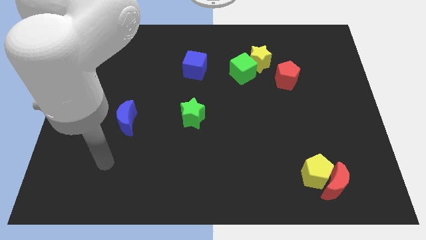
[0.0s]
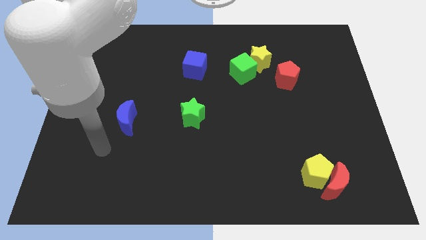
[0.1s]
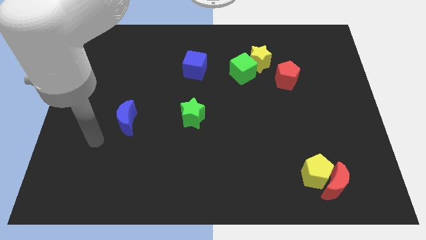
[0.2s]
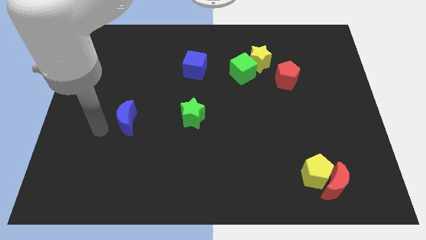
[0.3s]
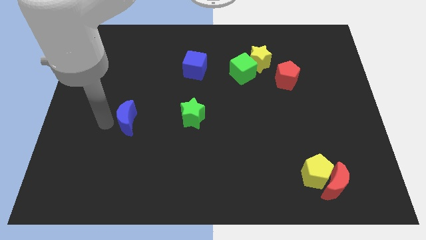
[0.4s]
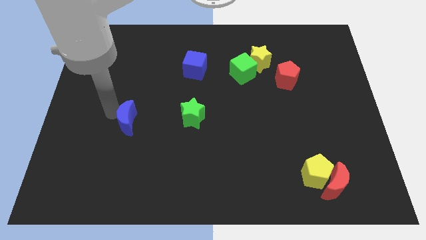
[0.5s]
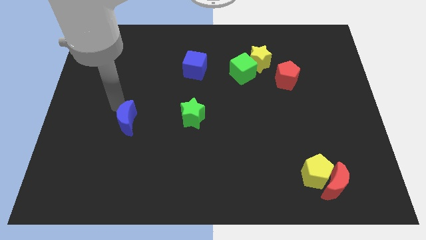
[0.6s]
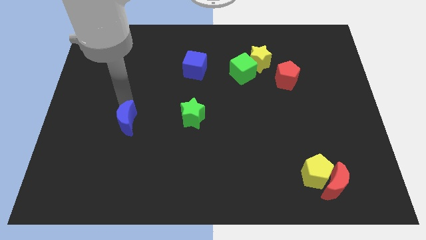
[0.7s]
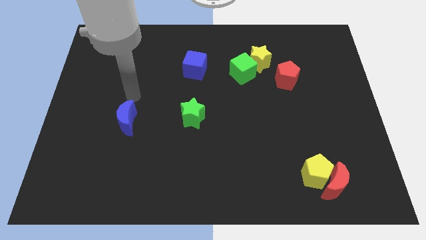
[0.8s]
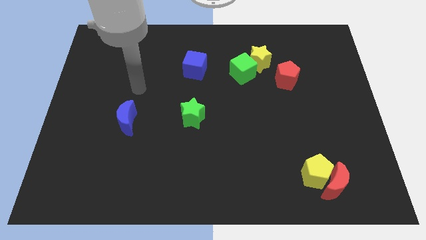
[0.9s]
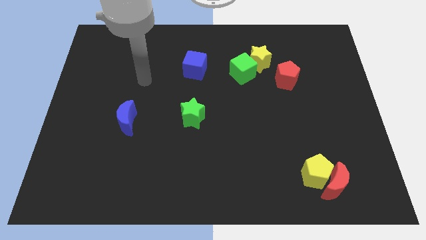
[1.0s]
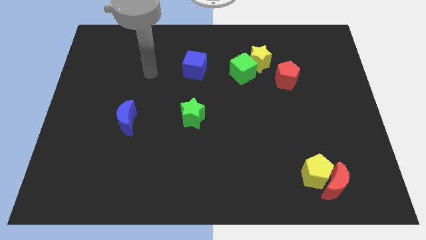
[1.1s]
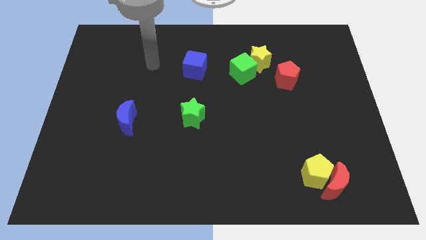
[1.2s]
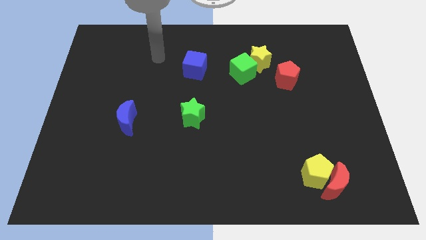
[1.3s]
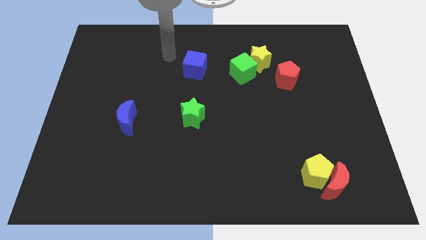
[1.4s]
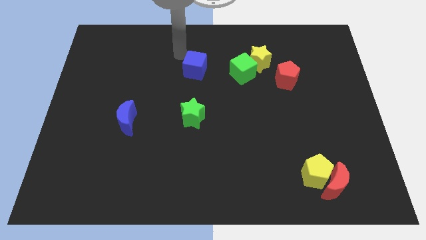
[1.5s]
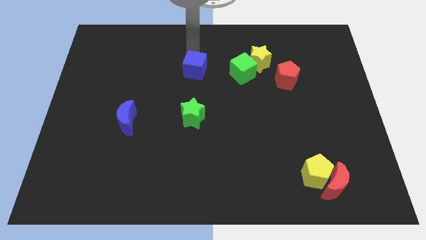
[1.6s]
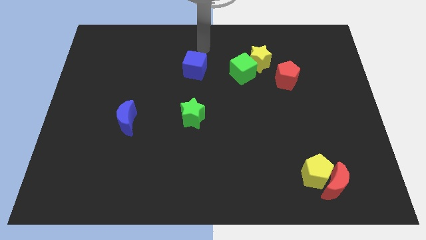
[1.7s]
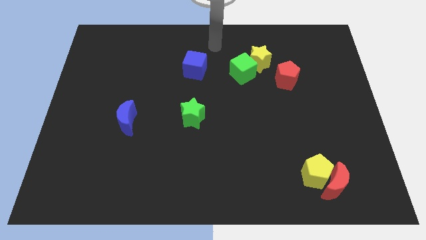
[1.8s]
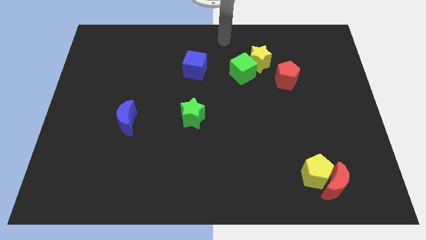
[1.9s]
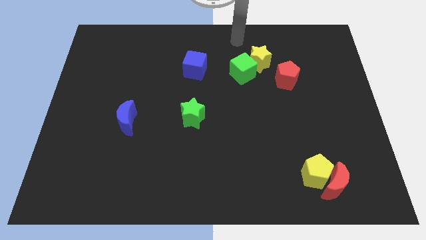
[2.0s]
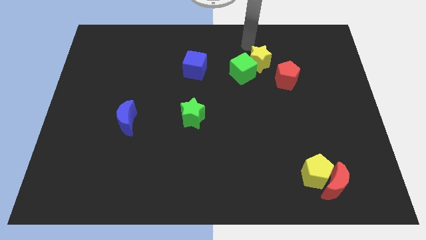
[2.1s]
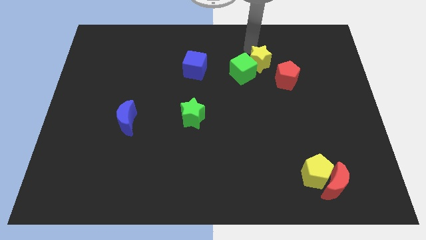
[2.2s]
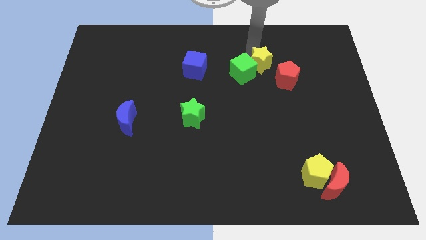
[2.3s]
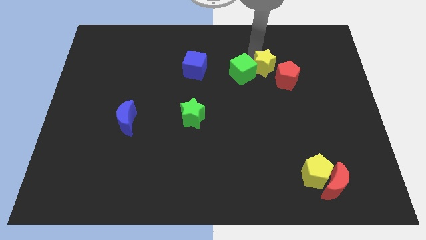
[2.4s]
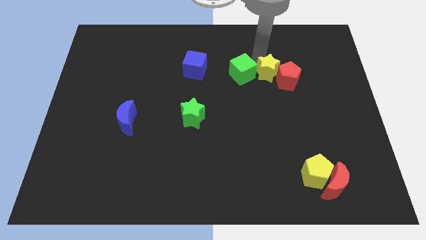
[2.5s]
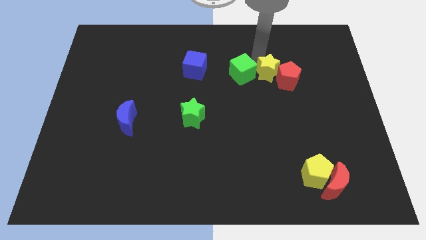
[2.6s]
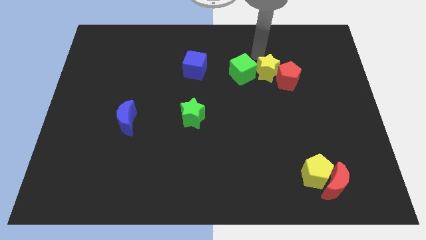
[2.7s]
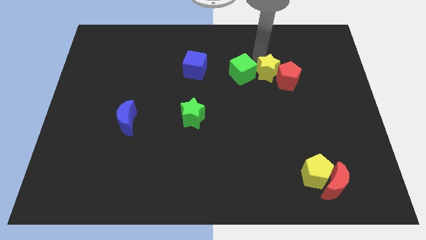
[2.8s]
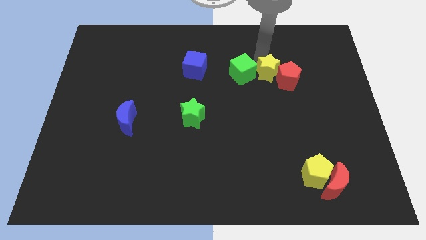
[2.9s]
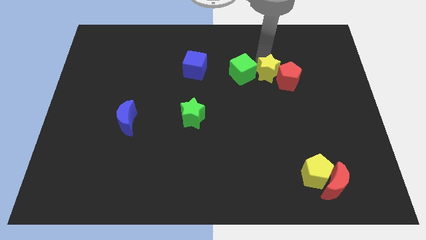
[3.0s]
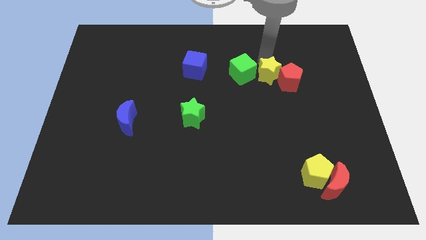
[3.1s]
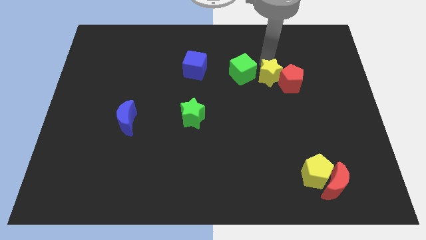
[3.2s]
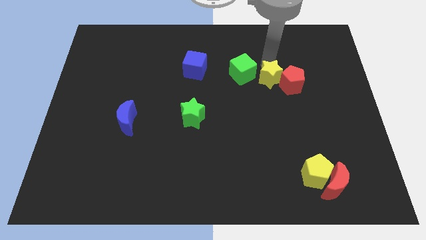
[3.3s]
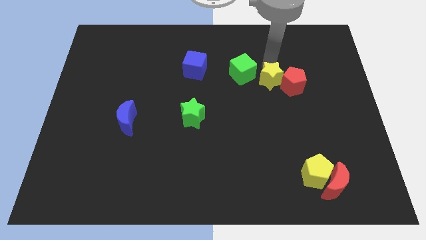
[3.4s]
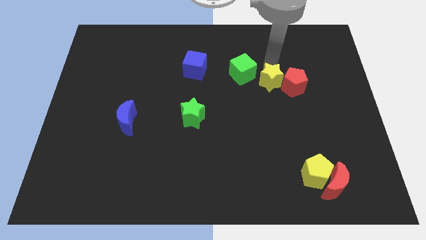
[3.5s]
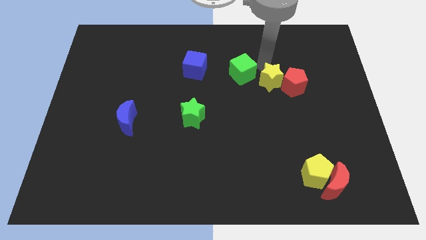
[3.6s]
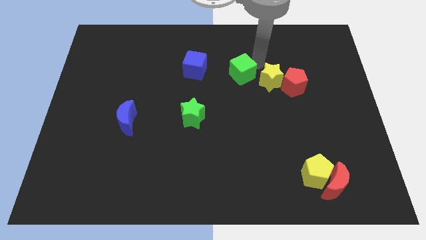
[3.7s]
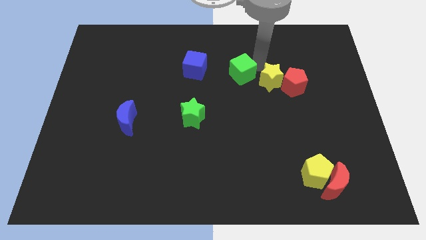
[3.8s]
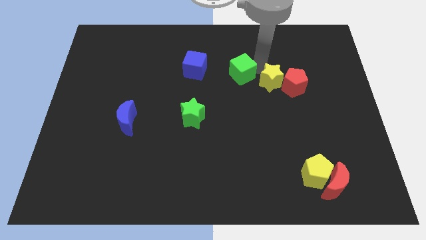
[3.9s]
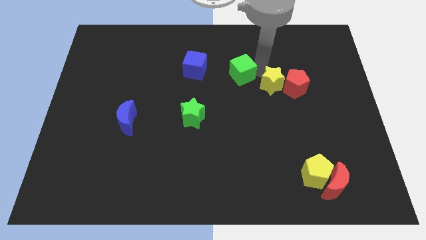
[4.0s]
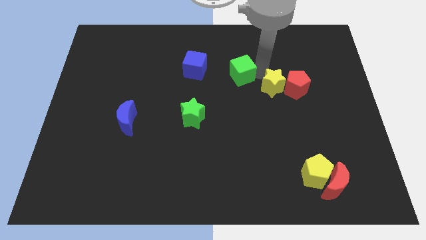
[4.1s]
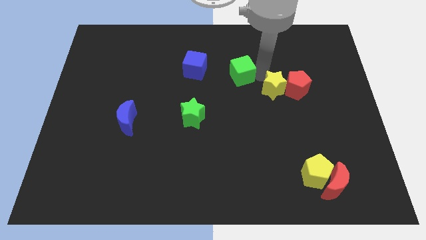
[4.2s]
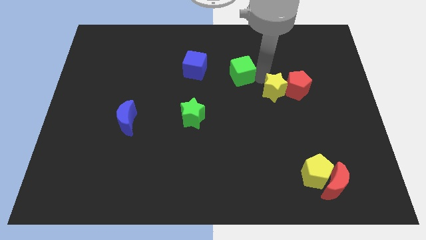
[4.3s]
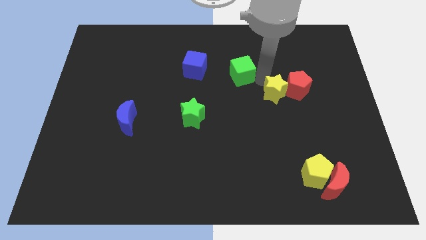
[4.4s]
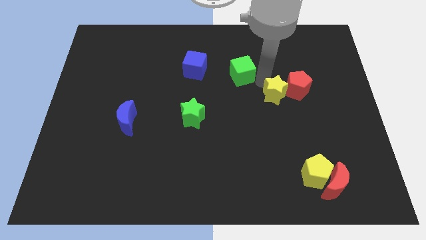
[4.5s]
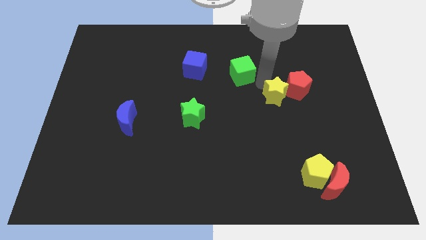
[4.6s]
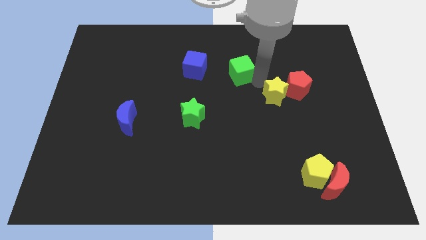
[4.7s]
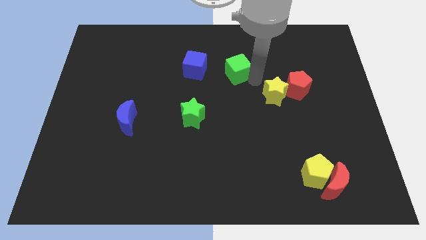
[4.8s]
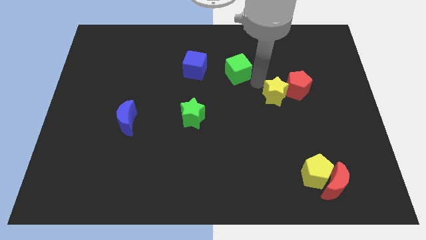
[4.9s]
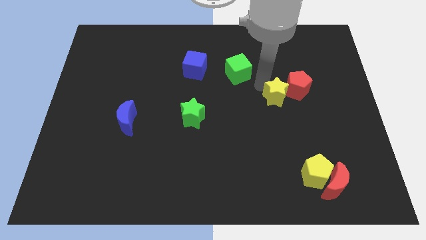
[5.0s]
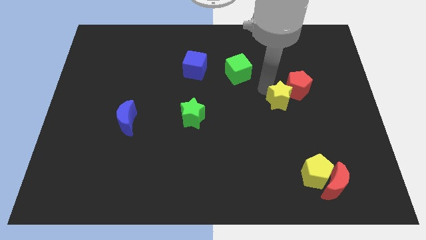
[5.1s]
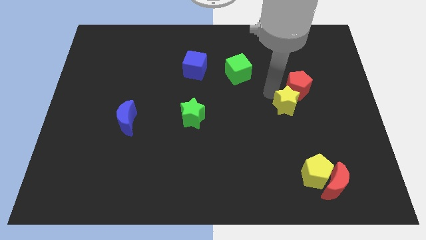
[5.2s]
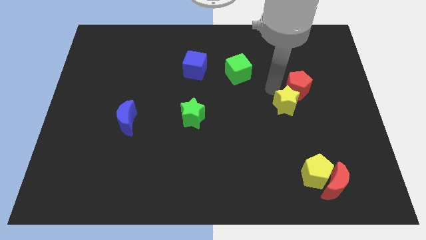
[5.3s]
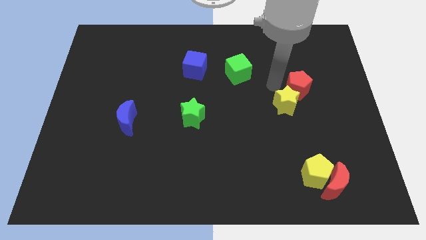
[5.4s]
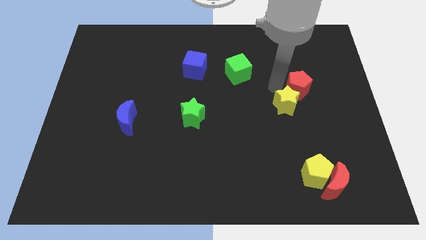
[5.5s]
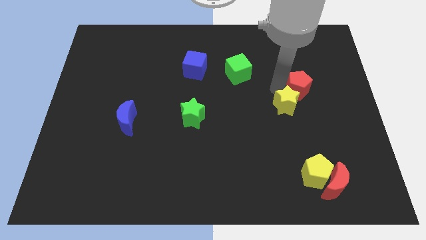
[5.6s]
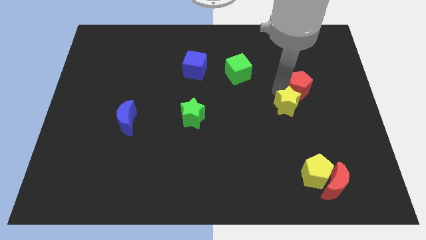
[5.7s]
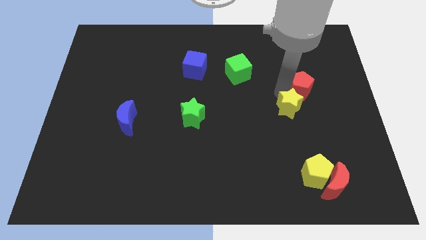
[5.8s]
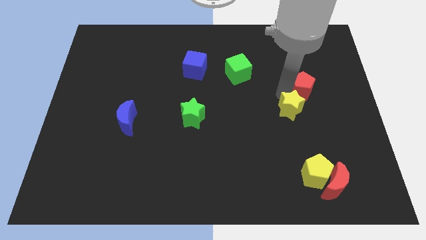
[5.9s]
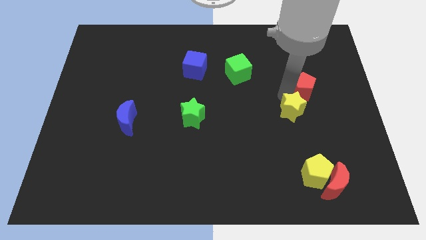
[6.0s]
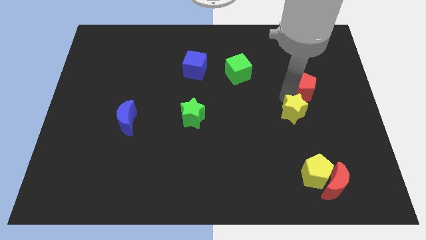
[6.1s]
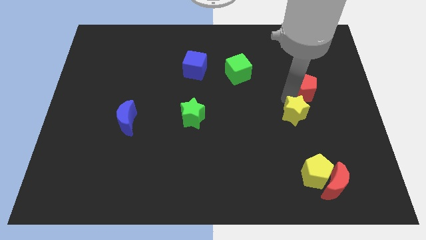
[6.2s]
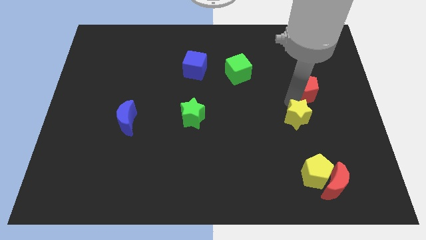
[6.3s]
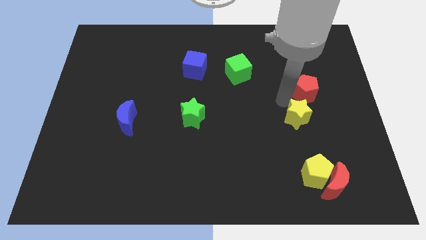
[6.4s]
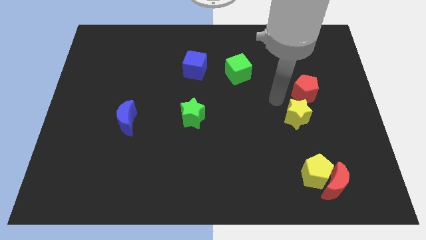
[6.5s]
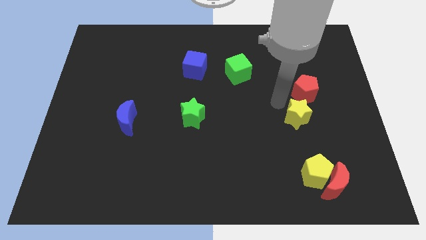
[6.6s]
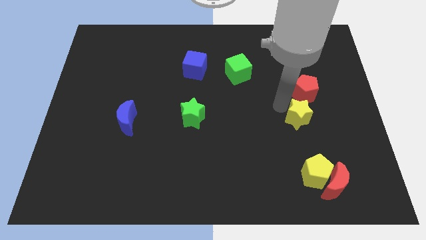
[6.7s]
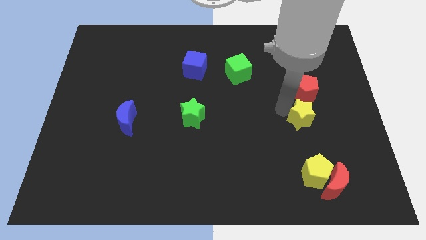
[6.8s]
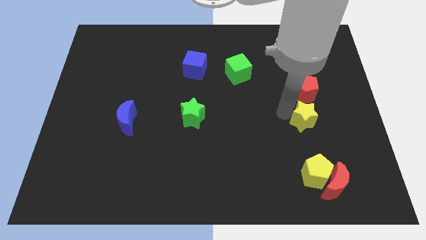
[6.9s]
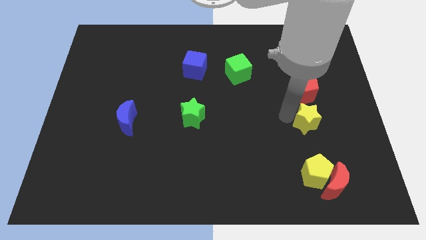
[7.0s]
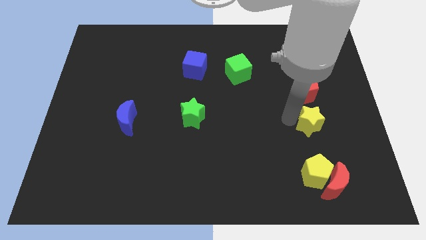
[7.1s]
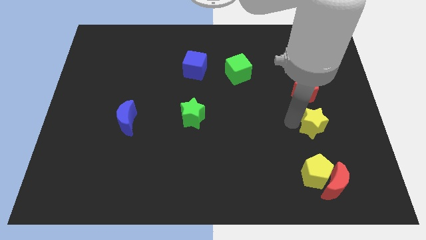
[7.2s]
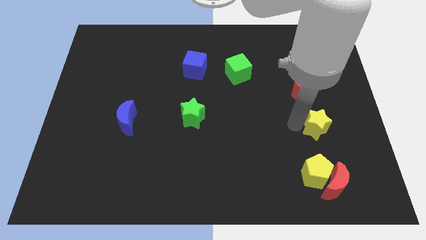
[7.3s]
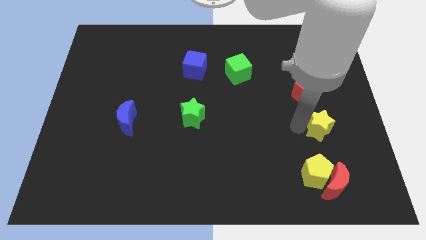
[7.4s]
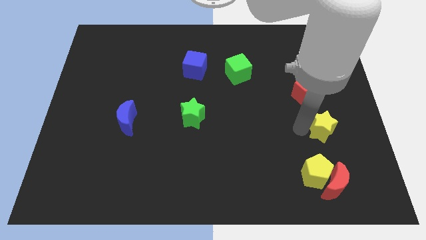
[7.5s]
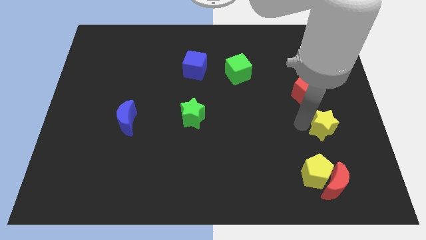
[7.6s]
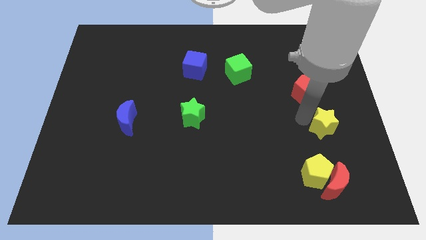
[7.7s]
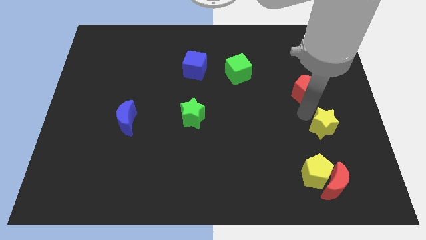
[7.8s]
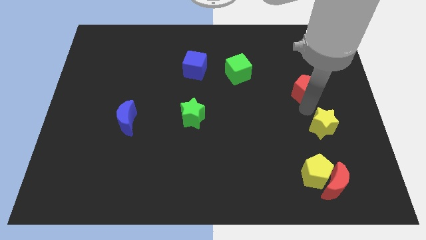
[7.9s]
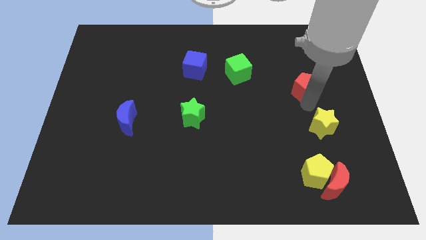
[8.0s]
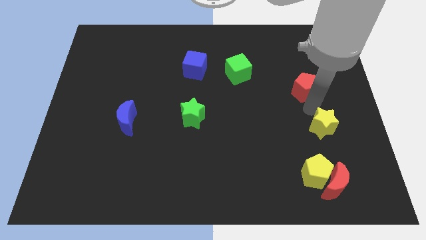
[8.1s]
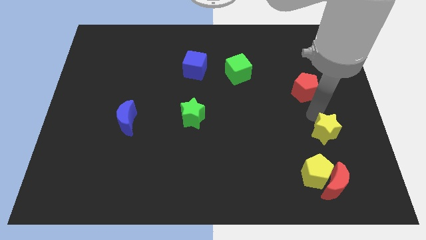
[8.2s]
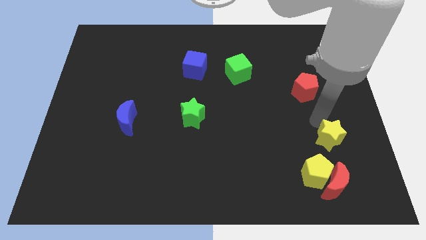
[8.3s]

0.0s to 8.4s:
move the yellow star to the top right side of the yellow pentagon
